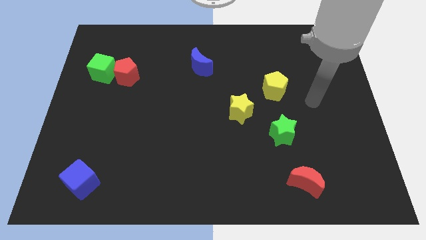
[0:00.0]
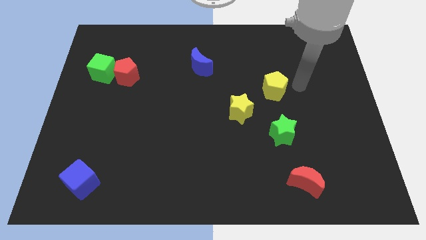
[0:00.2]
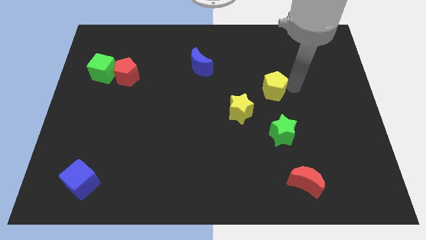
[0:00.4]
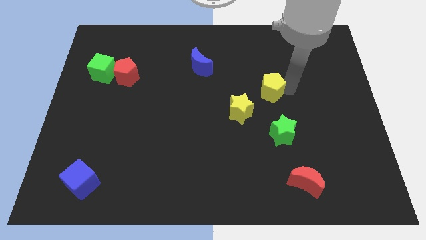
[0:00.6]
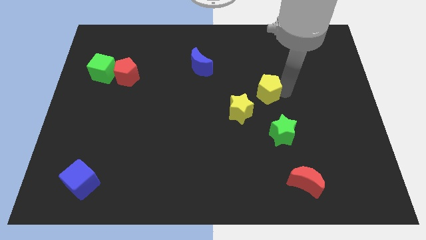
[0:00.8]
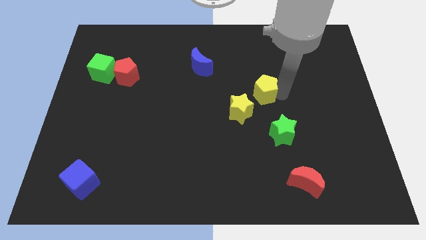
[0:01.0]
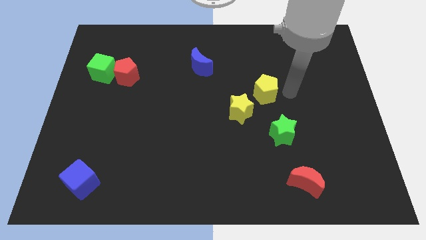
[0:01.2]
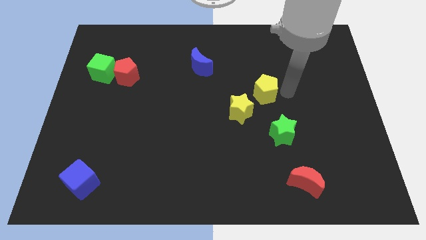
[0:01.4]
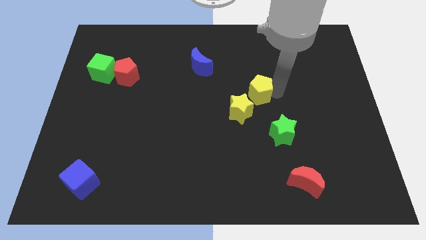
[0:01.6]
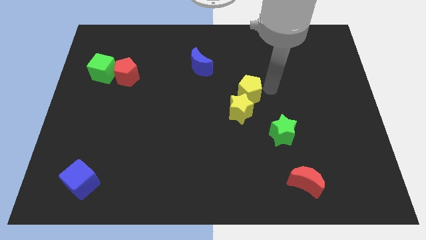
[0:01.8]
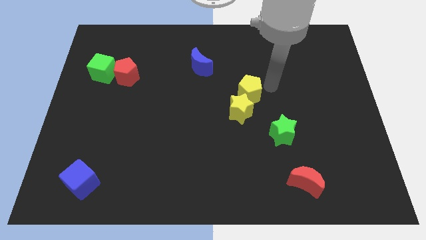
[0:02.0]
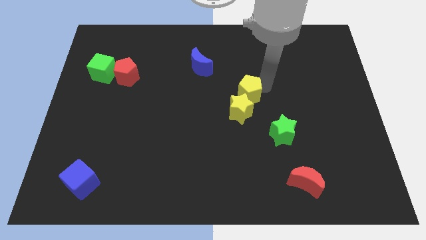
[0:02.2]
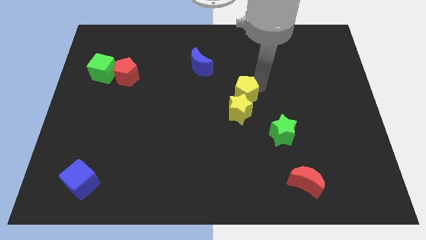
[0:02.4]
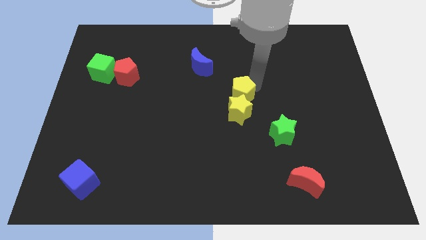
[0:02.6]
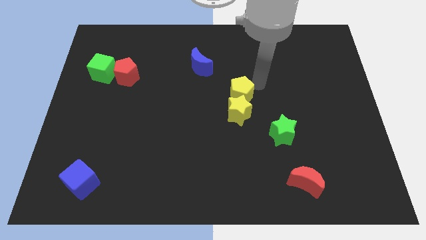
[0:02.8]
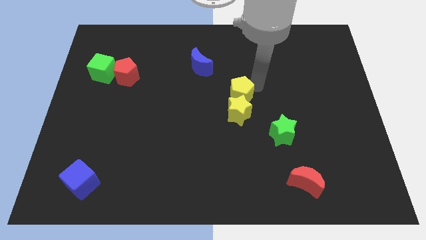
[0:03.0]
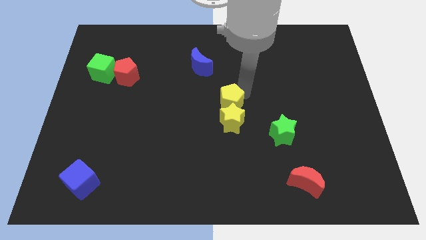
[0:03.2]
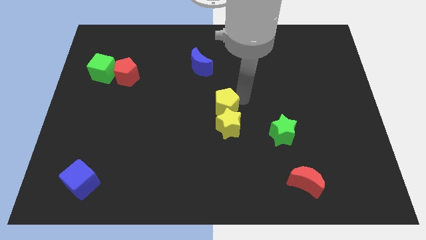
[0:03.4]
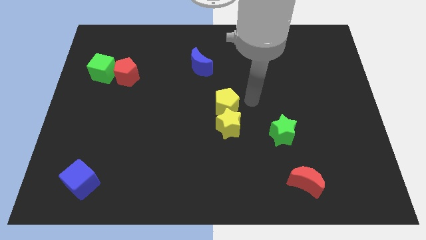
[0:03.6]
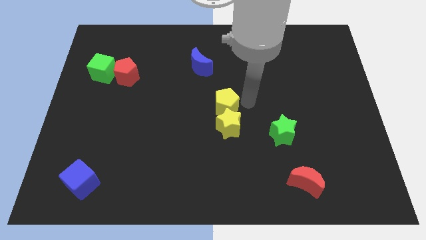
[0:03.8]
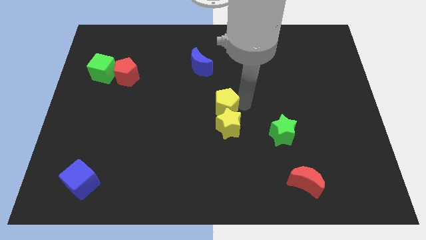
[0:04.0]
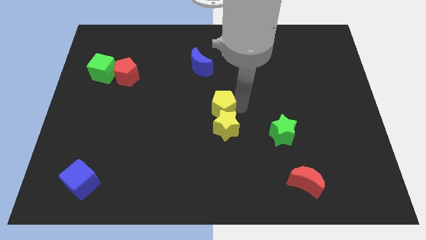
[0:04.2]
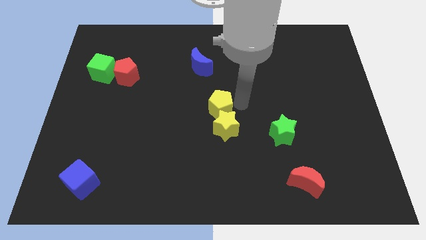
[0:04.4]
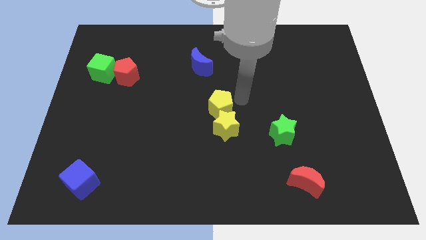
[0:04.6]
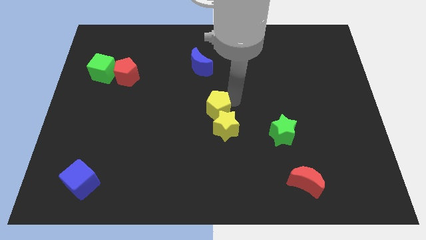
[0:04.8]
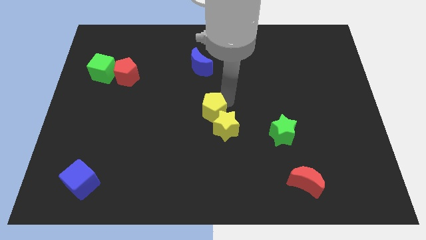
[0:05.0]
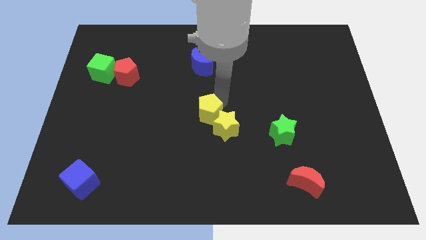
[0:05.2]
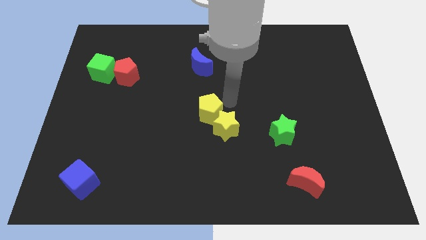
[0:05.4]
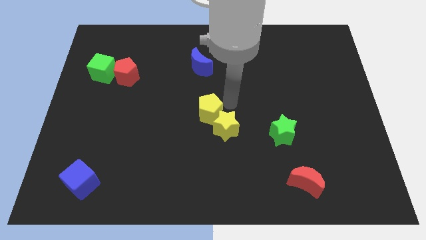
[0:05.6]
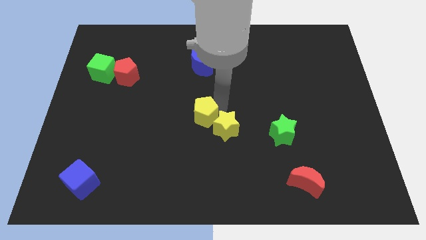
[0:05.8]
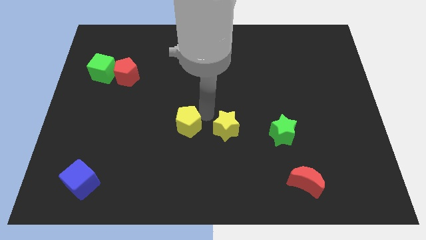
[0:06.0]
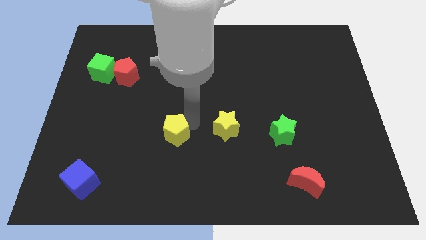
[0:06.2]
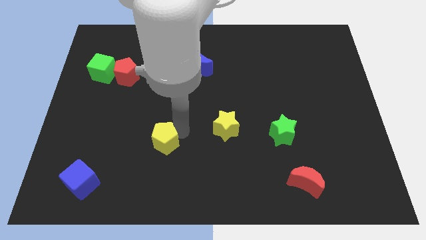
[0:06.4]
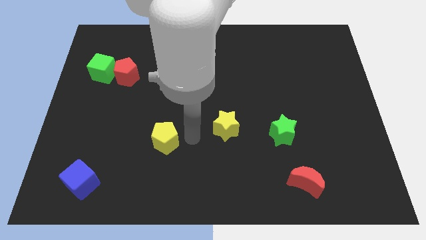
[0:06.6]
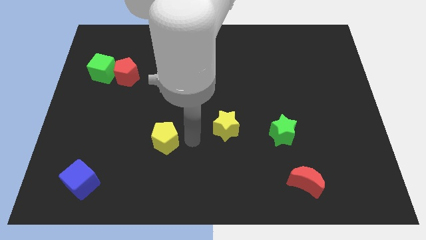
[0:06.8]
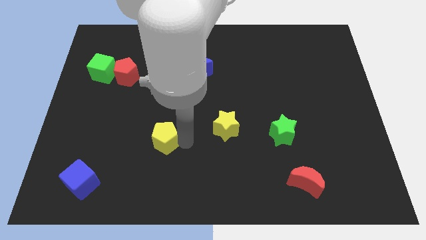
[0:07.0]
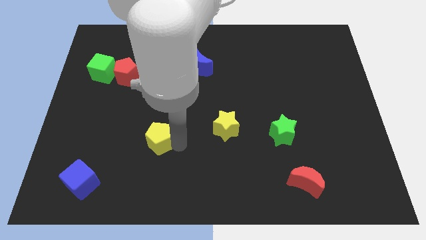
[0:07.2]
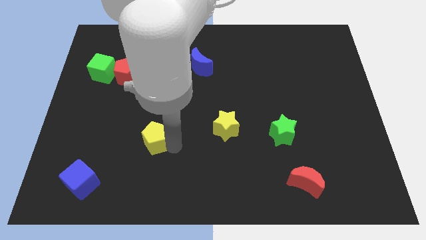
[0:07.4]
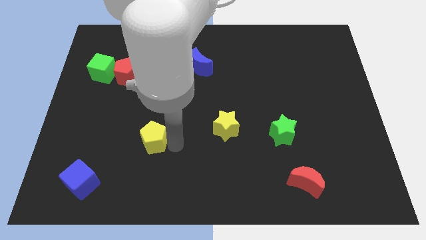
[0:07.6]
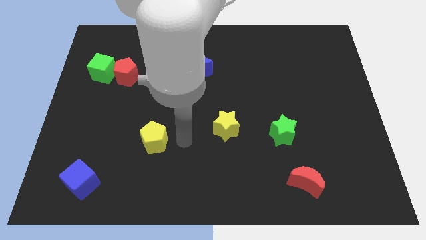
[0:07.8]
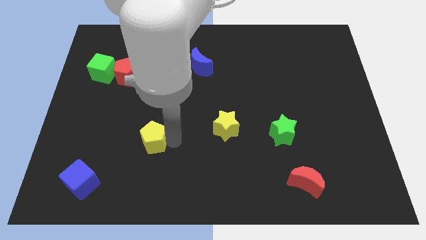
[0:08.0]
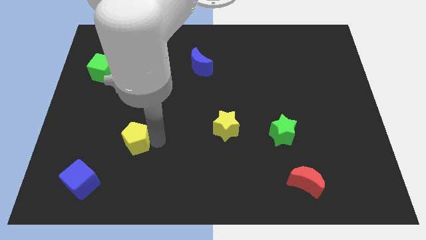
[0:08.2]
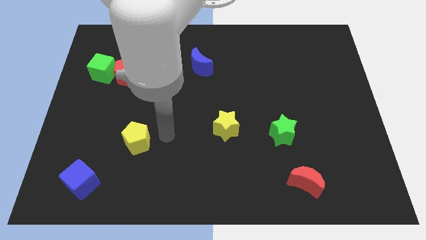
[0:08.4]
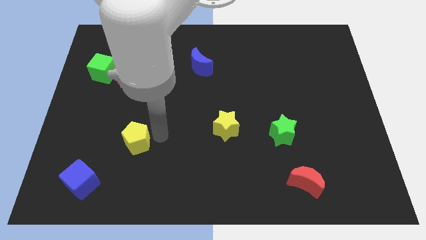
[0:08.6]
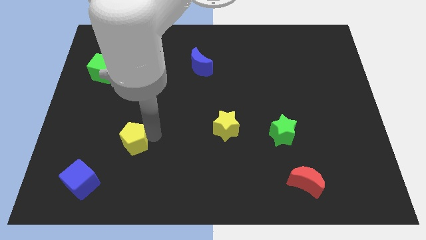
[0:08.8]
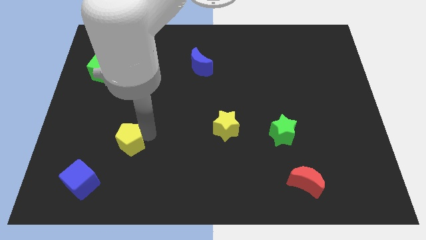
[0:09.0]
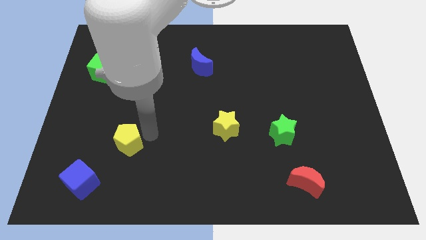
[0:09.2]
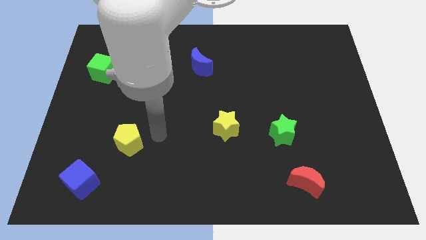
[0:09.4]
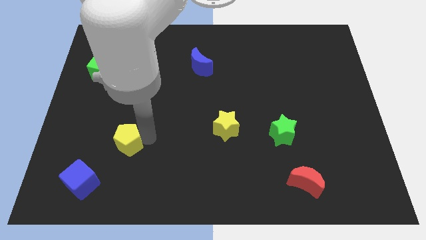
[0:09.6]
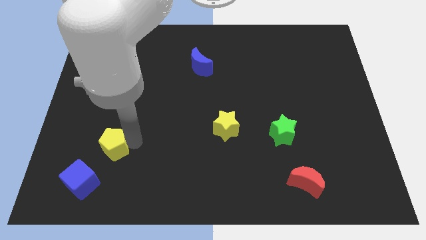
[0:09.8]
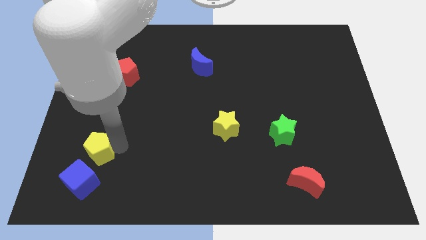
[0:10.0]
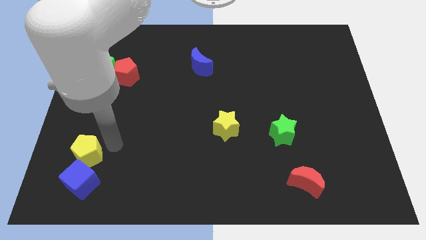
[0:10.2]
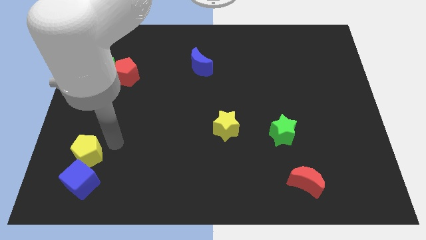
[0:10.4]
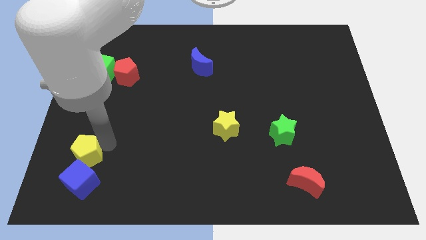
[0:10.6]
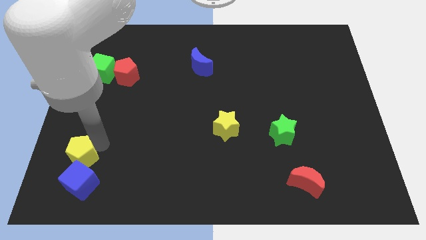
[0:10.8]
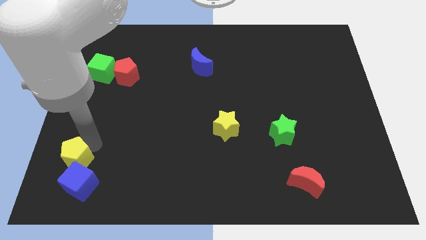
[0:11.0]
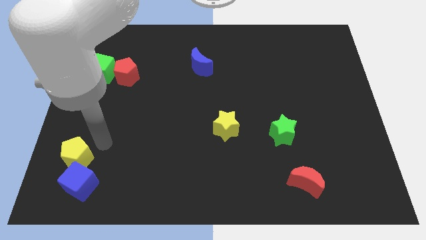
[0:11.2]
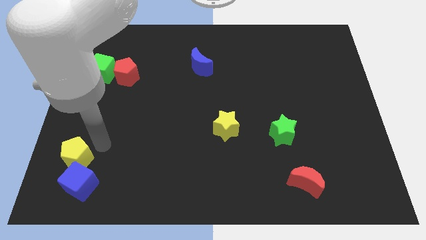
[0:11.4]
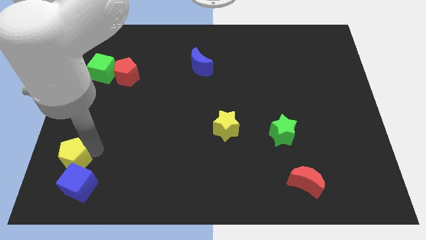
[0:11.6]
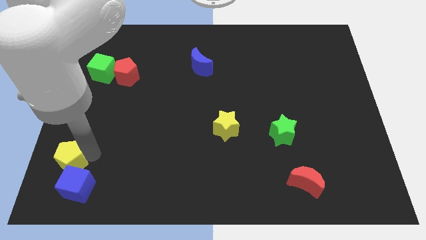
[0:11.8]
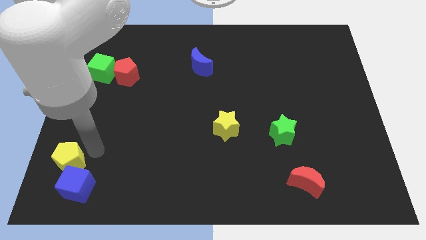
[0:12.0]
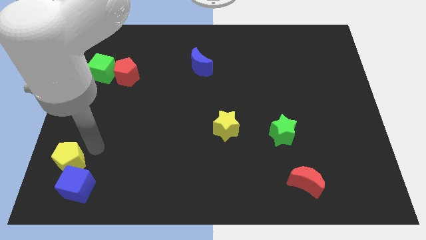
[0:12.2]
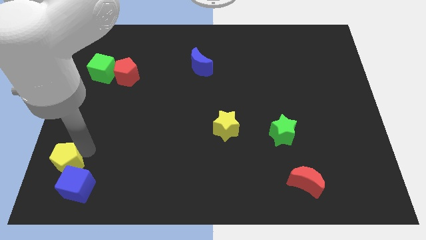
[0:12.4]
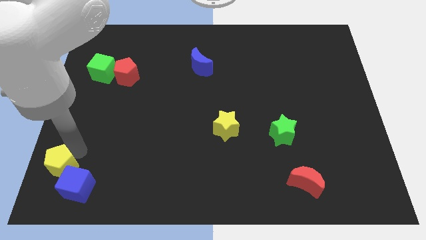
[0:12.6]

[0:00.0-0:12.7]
slide the yellow pentagon to the bottom left corner
